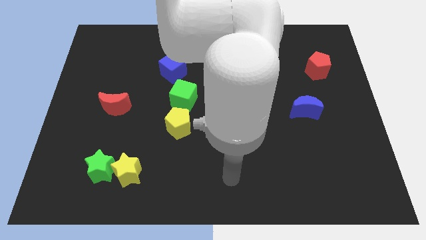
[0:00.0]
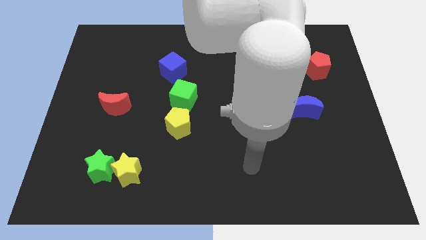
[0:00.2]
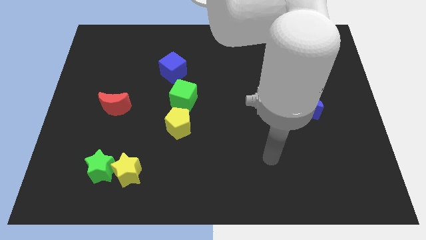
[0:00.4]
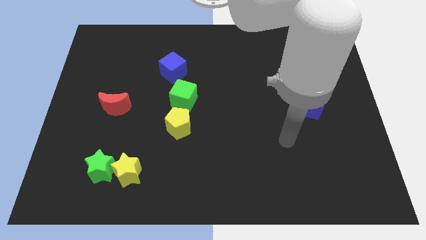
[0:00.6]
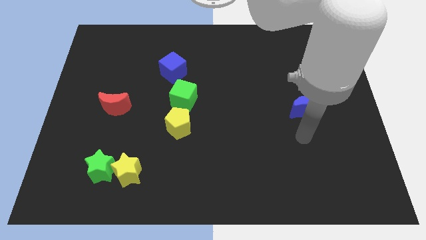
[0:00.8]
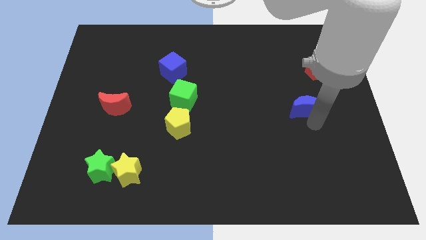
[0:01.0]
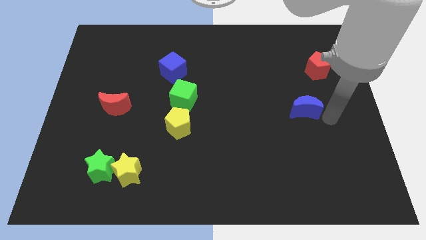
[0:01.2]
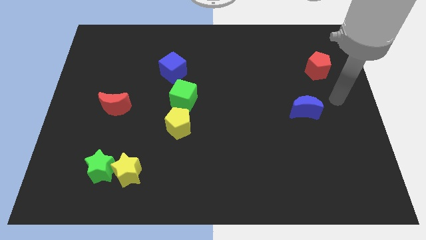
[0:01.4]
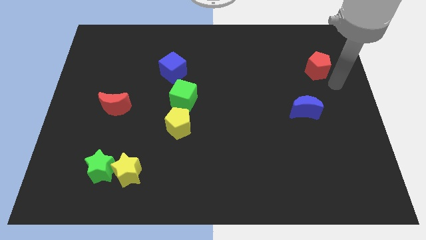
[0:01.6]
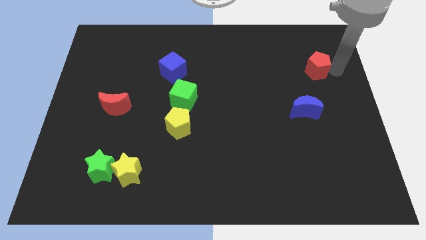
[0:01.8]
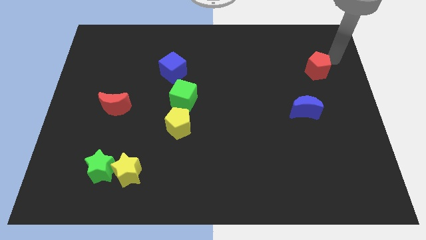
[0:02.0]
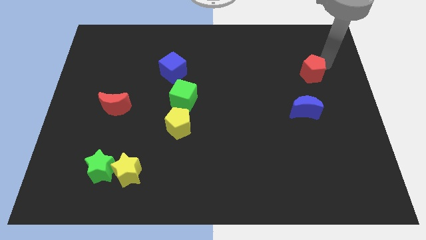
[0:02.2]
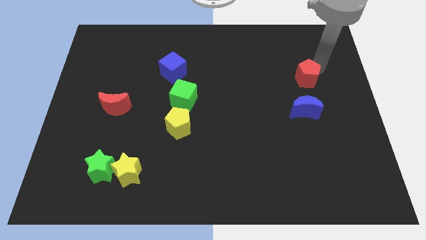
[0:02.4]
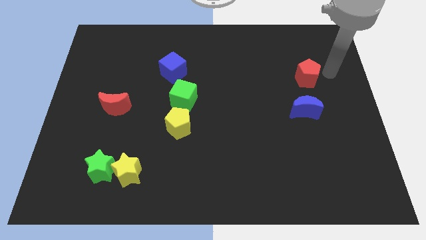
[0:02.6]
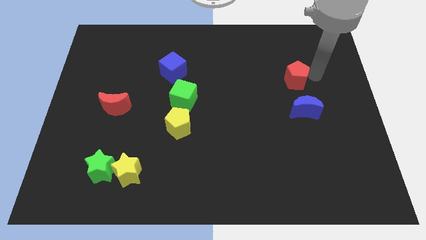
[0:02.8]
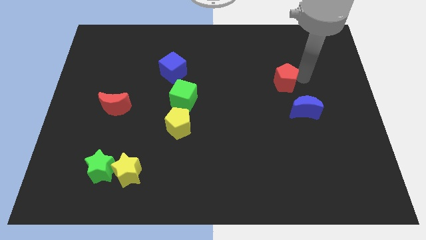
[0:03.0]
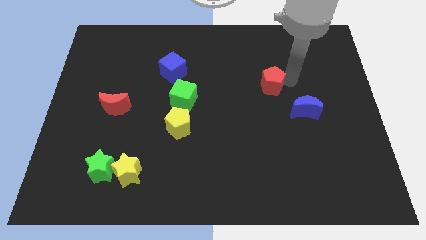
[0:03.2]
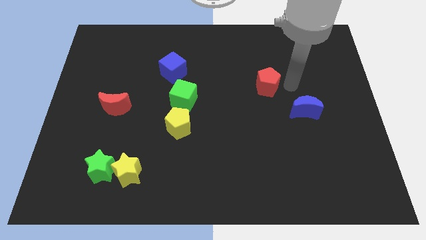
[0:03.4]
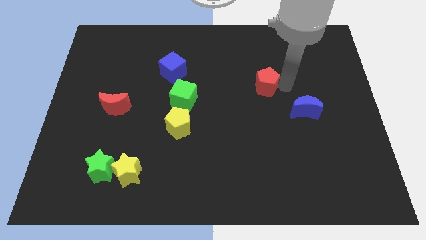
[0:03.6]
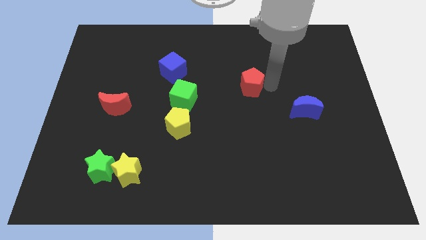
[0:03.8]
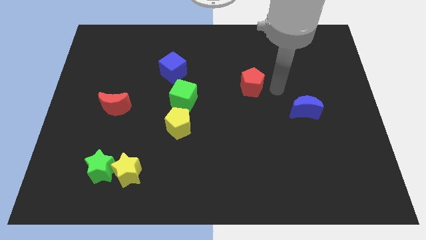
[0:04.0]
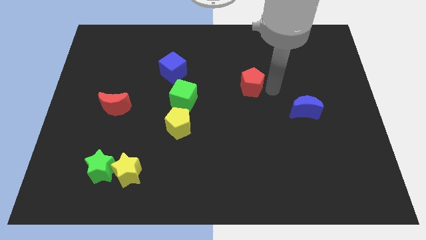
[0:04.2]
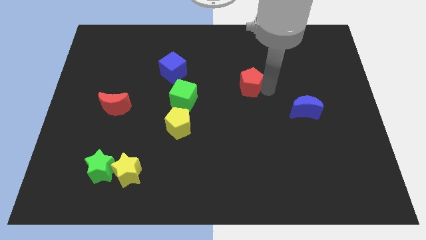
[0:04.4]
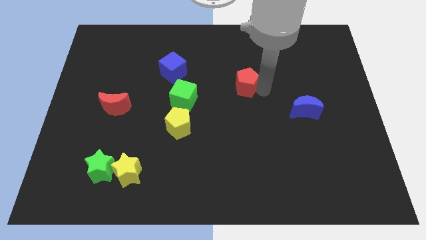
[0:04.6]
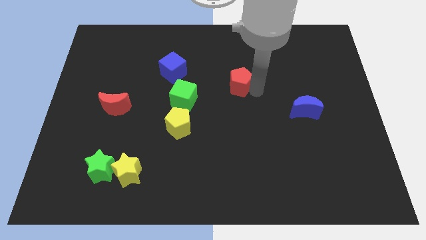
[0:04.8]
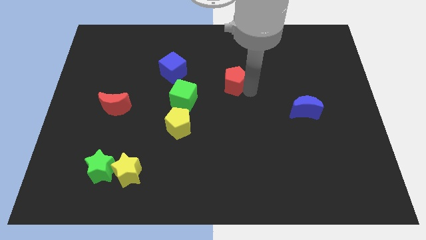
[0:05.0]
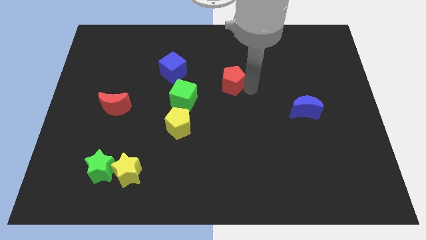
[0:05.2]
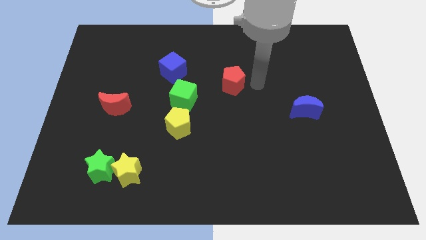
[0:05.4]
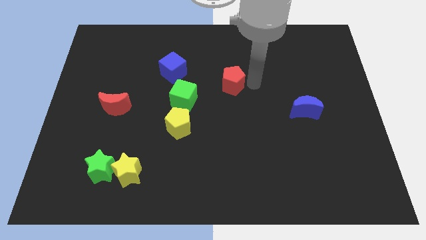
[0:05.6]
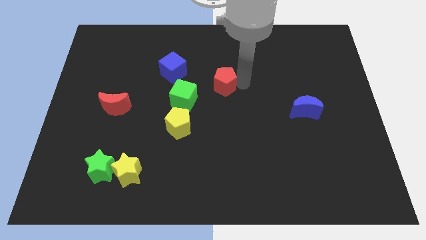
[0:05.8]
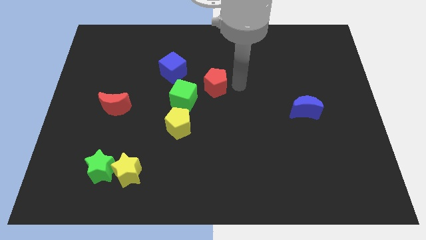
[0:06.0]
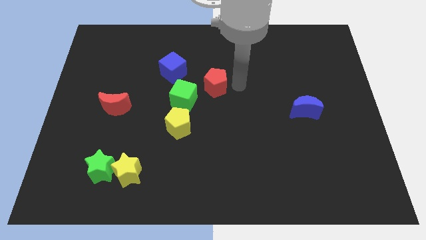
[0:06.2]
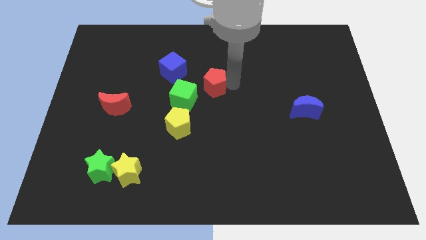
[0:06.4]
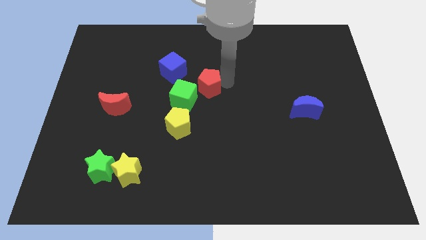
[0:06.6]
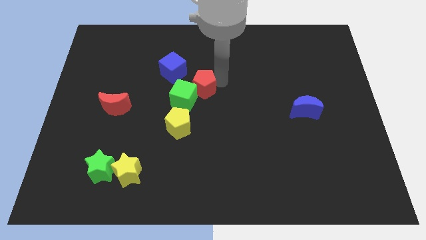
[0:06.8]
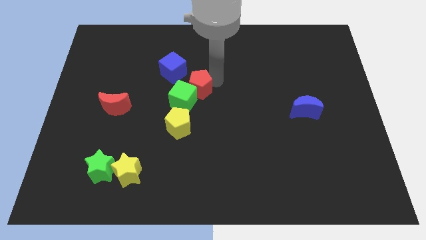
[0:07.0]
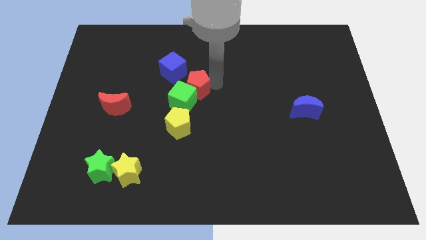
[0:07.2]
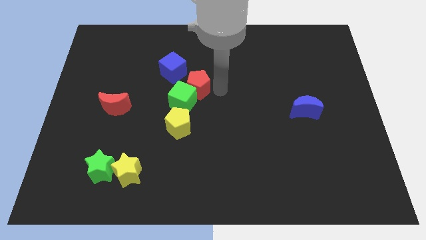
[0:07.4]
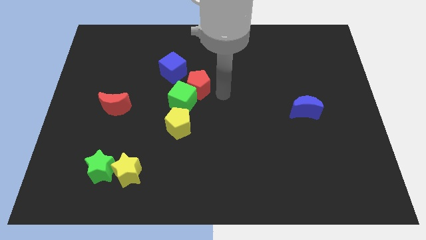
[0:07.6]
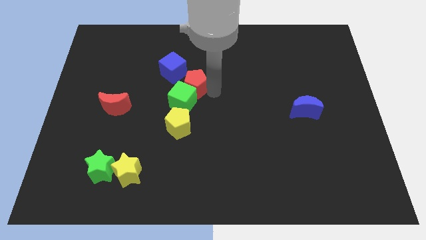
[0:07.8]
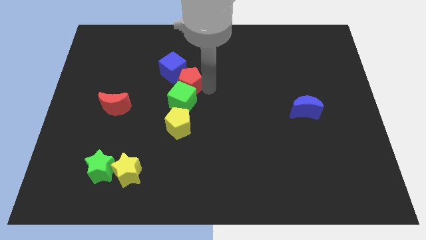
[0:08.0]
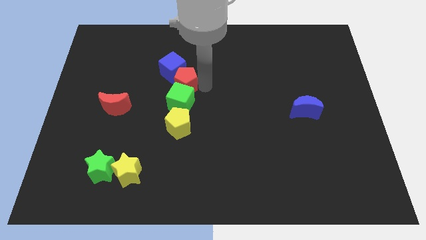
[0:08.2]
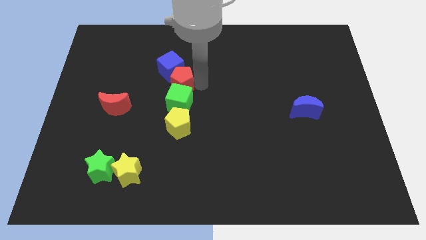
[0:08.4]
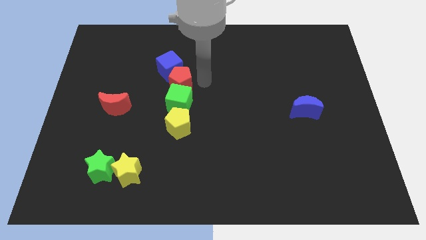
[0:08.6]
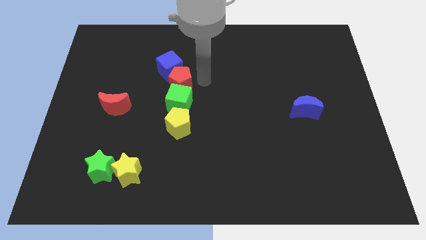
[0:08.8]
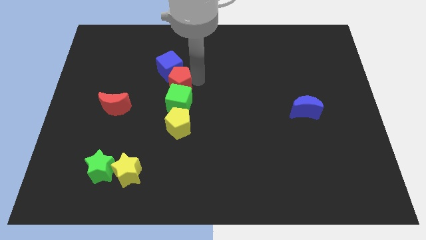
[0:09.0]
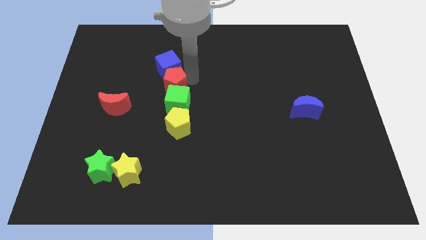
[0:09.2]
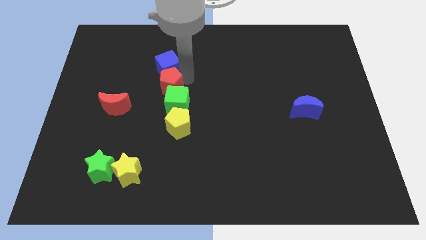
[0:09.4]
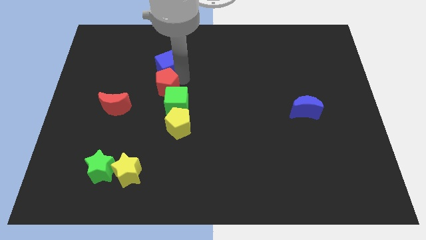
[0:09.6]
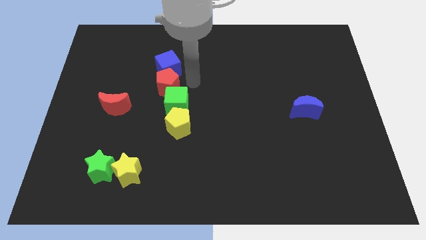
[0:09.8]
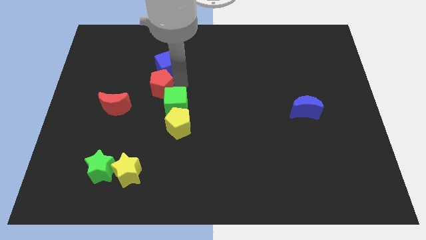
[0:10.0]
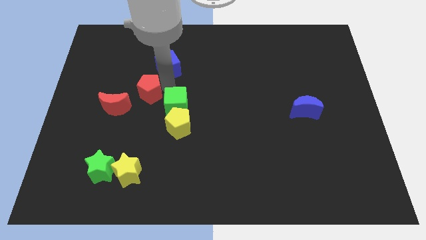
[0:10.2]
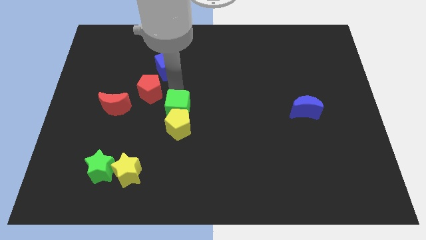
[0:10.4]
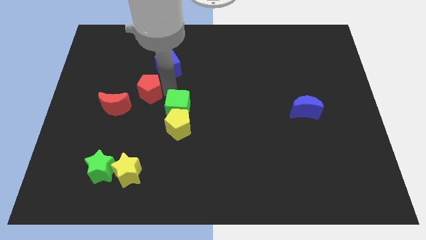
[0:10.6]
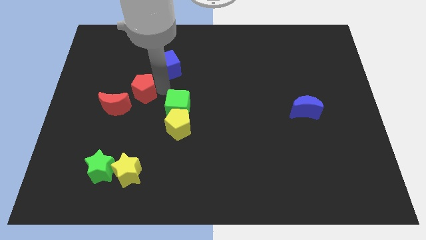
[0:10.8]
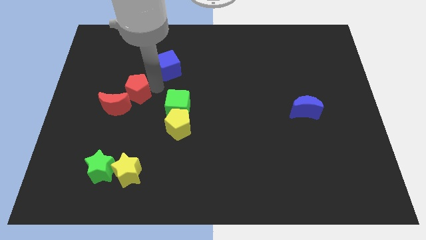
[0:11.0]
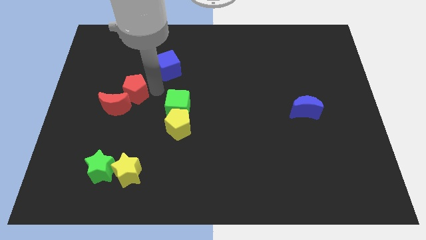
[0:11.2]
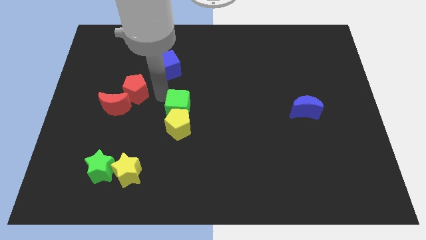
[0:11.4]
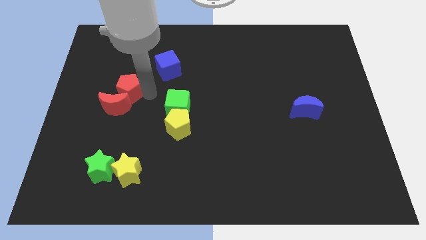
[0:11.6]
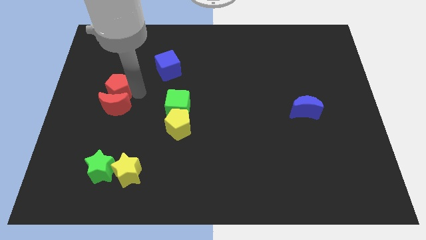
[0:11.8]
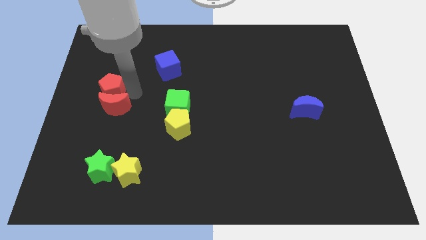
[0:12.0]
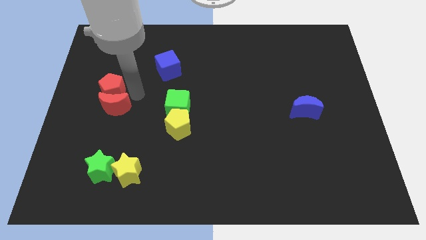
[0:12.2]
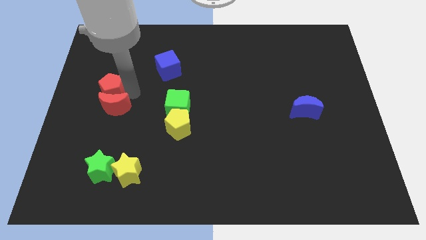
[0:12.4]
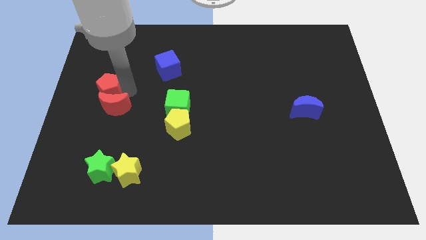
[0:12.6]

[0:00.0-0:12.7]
slide the red pentagon to the left side
